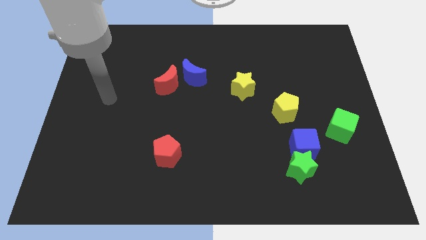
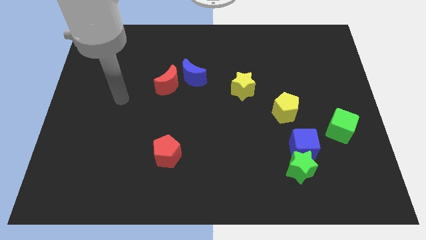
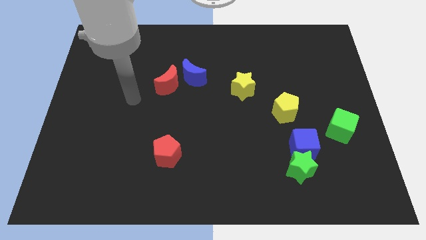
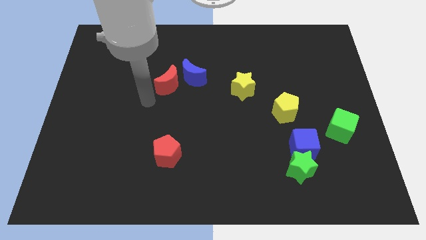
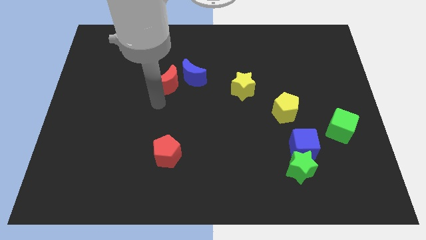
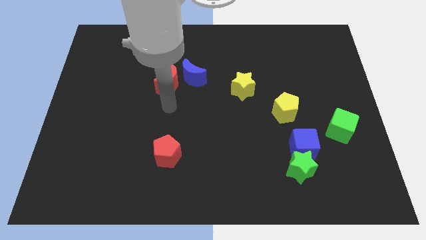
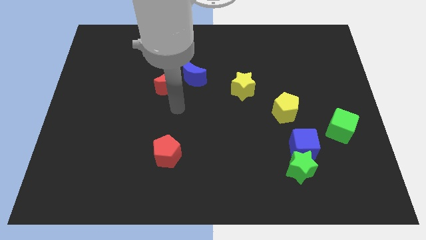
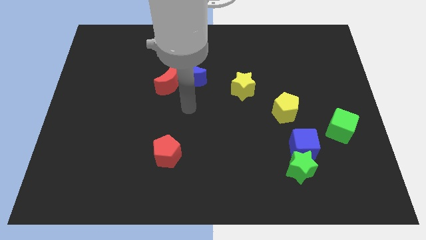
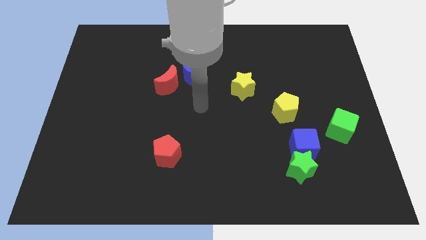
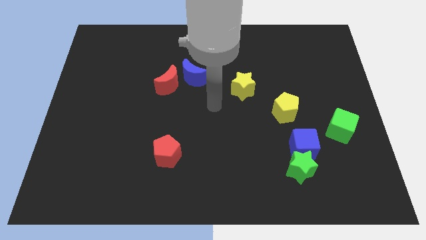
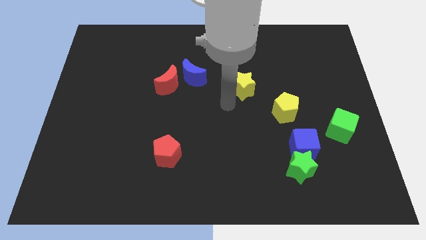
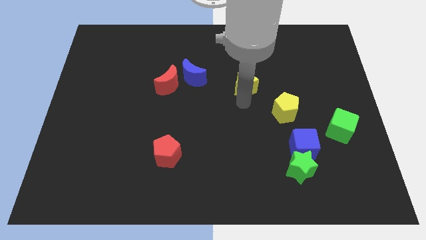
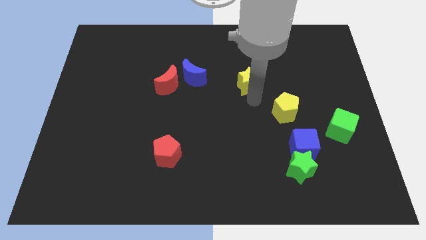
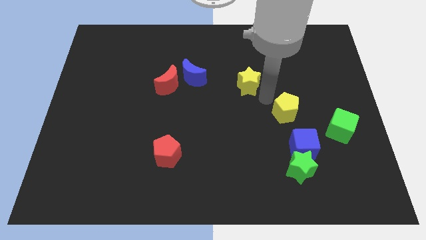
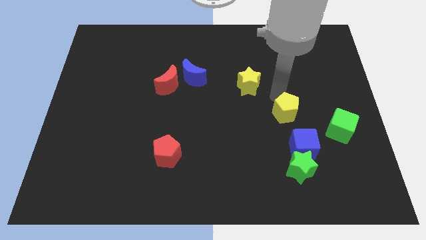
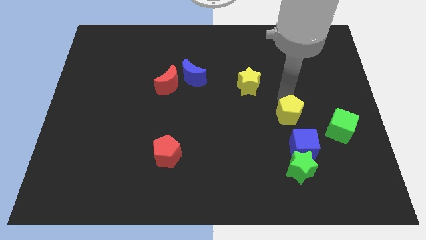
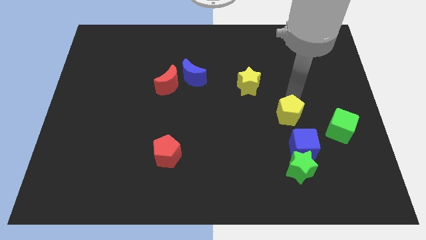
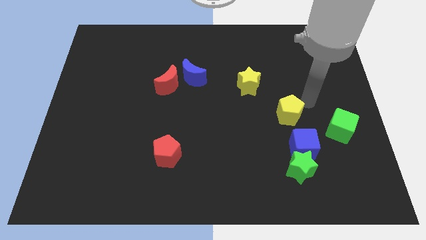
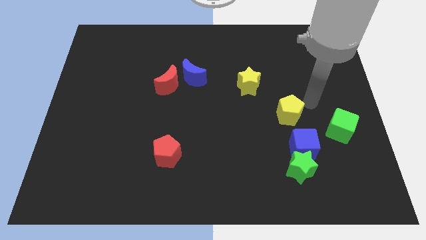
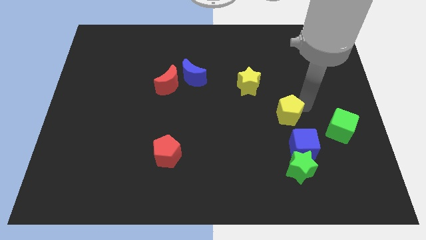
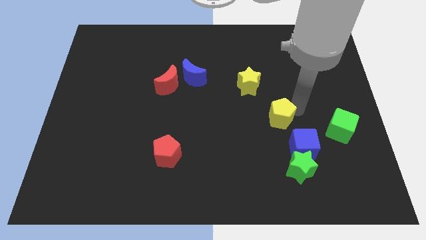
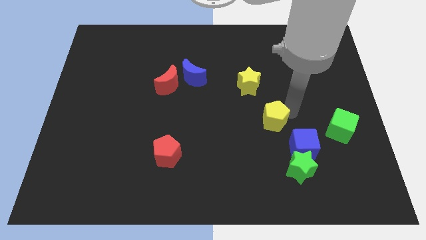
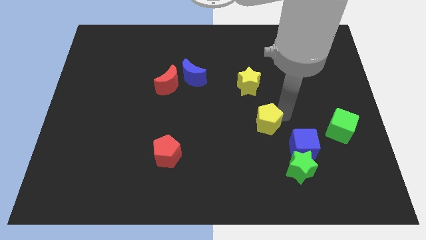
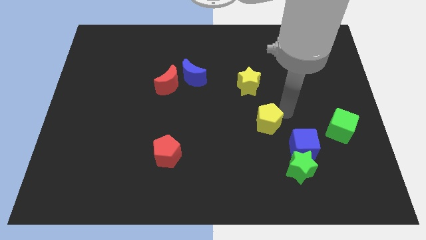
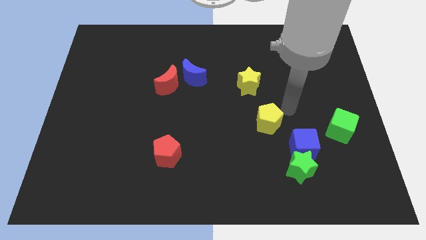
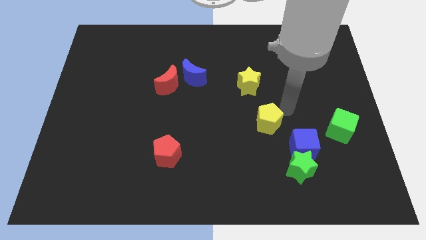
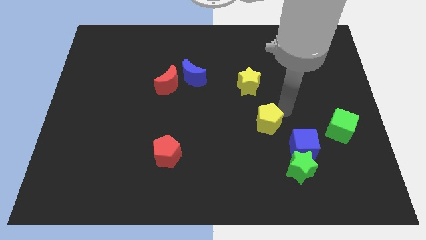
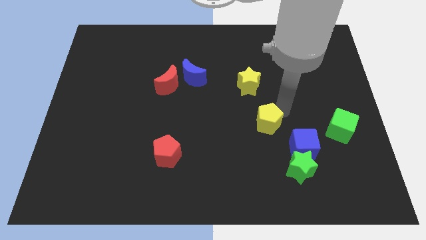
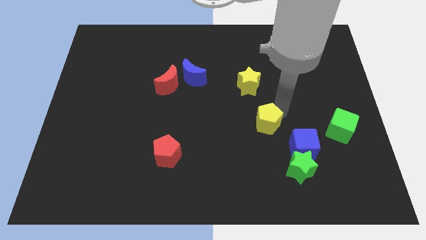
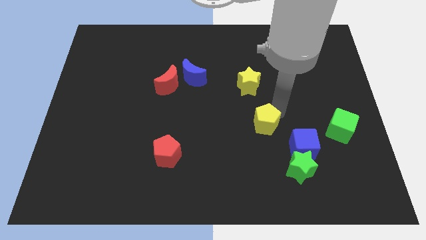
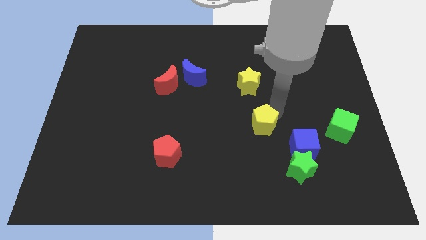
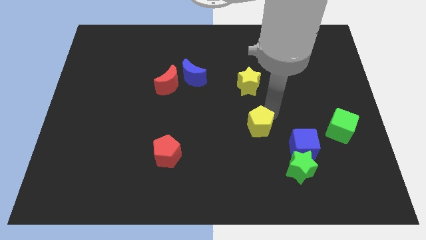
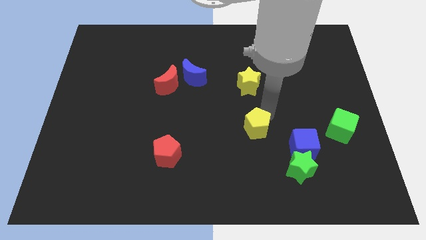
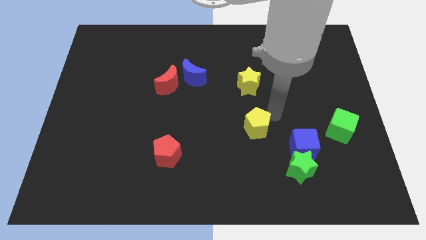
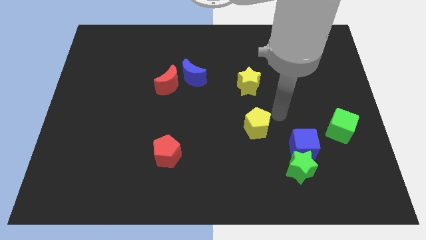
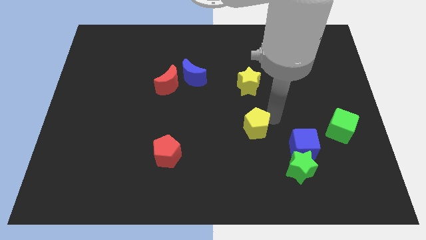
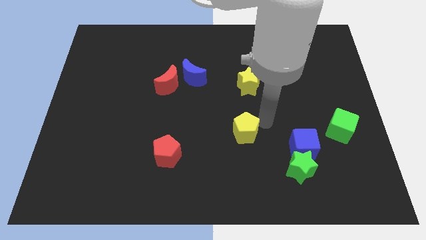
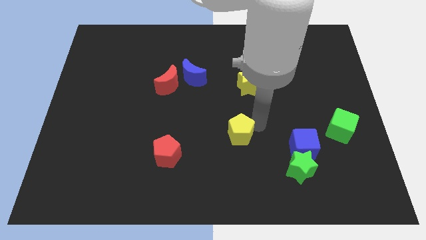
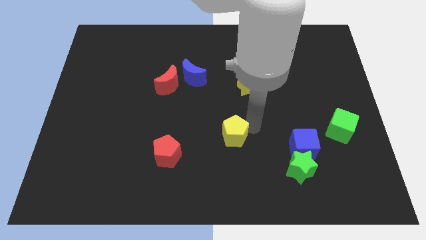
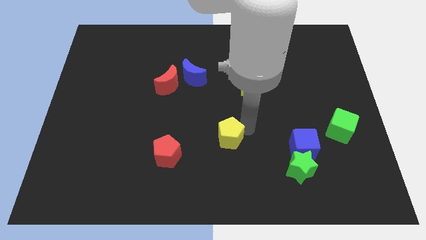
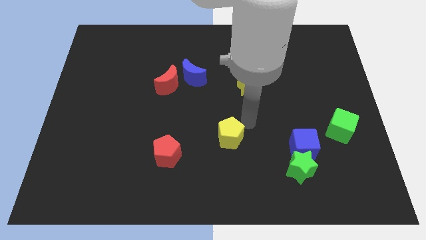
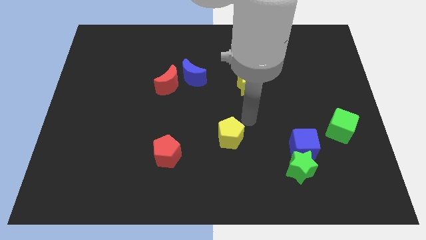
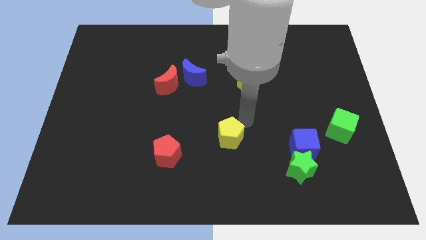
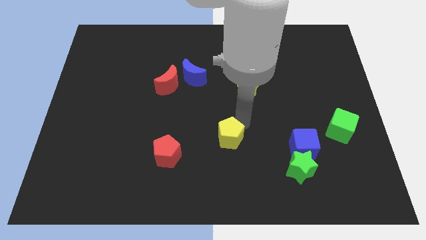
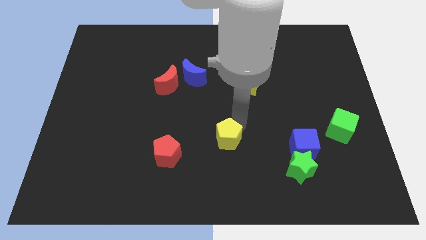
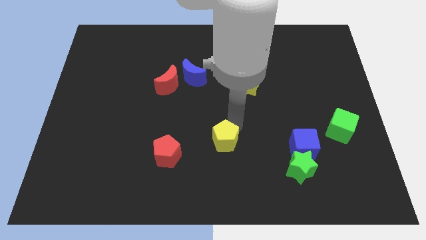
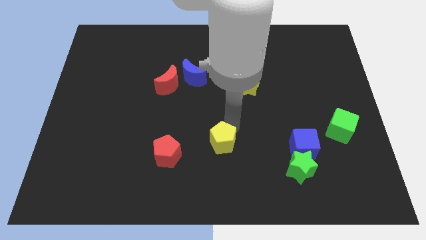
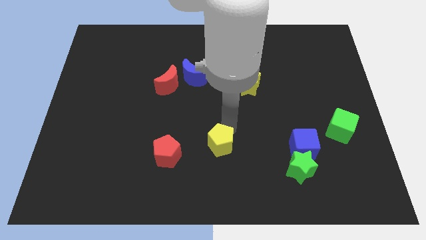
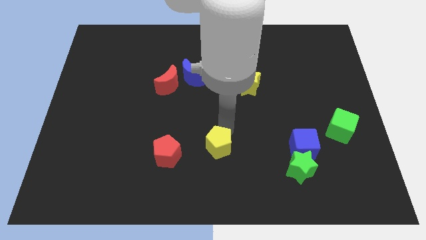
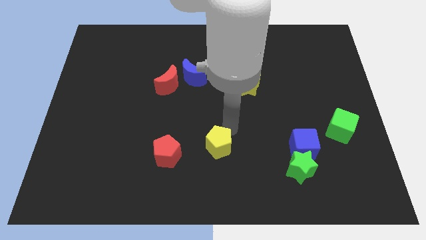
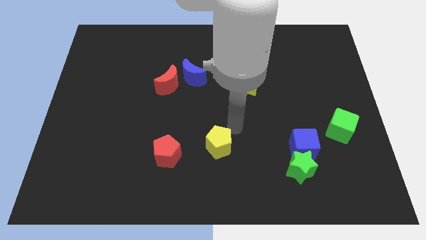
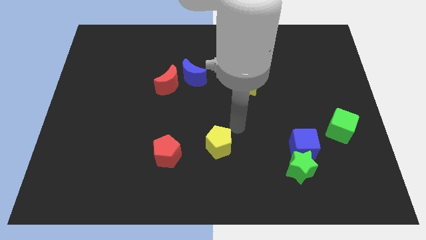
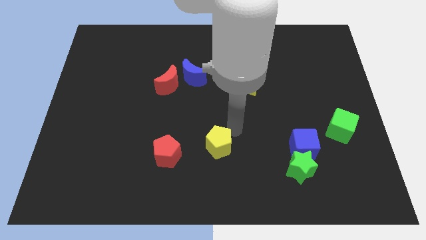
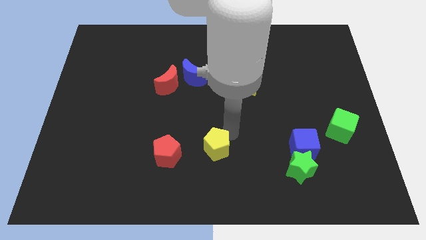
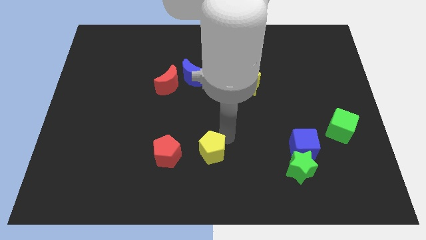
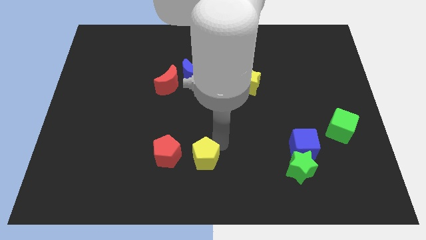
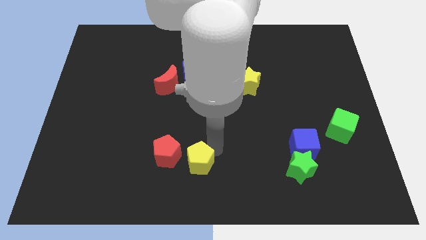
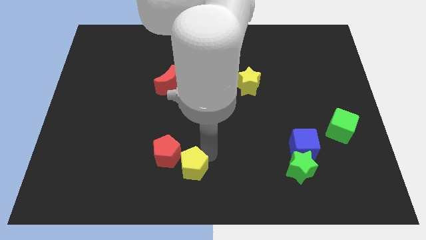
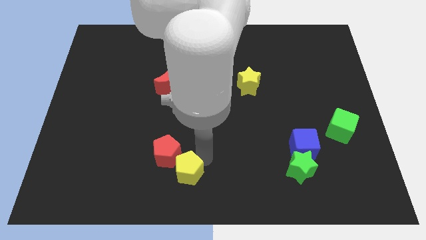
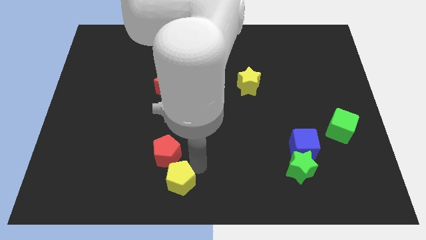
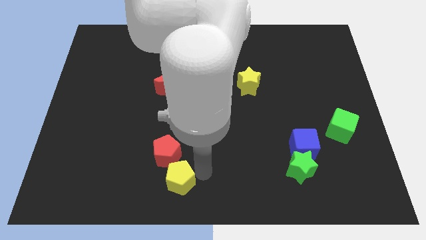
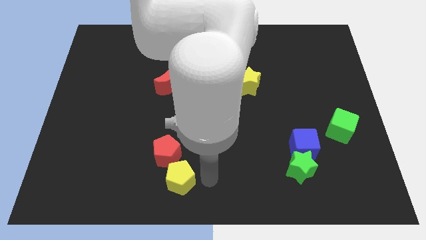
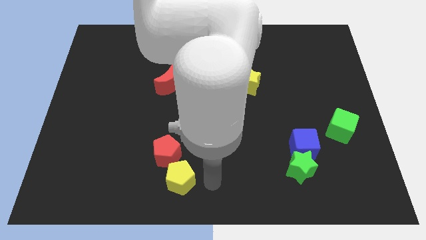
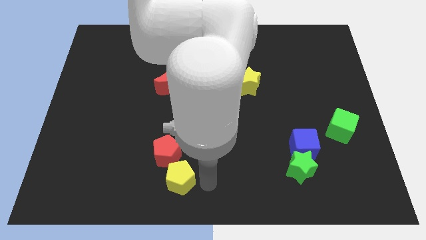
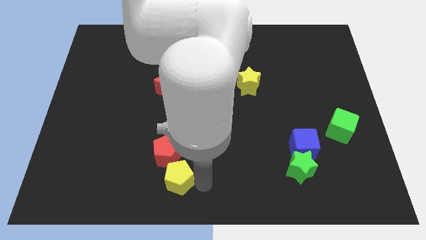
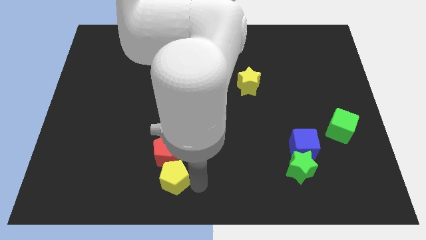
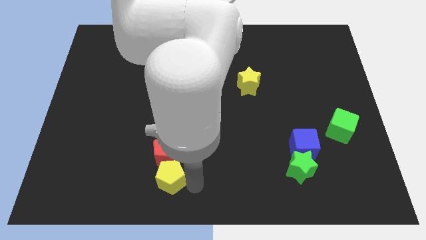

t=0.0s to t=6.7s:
push the yellow pentagon diagonally down and to the left of the red pentagon

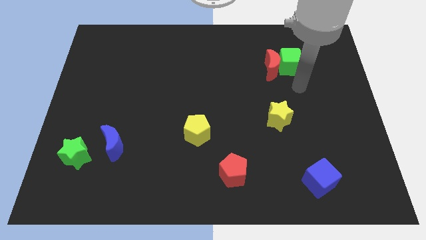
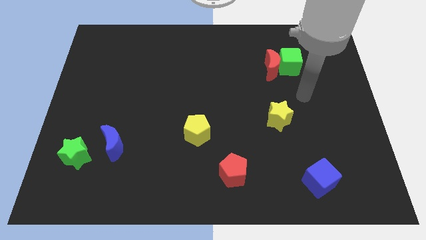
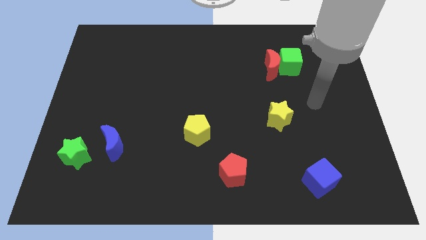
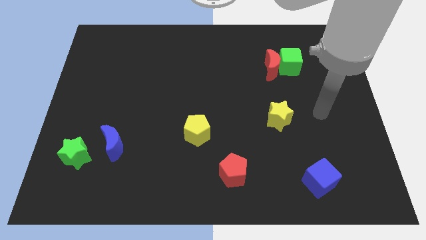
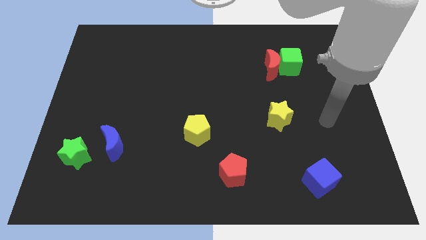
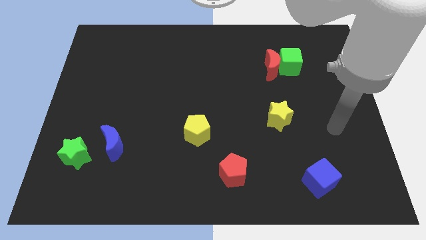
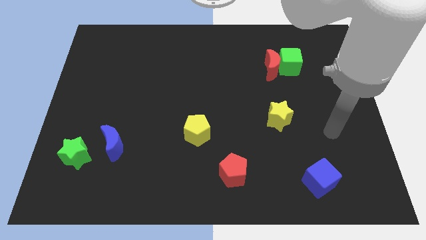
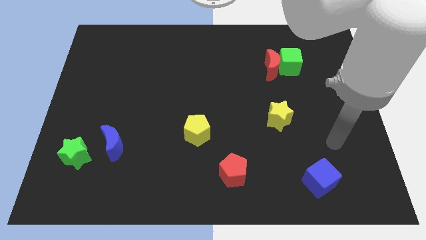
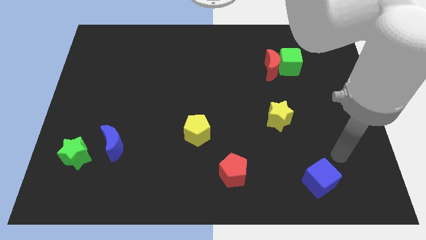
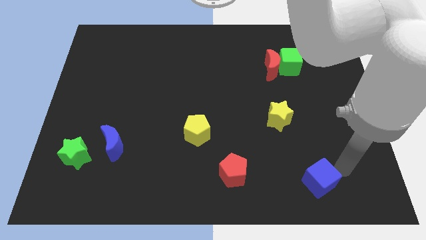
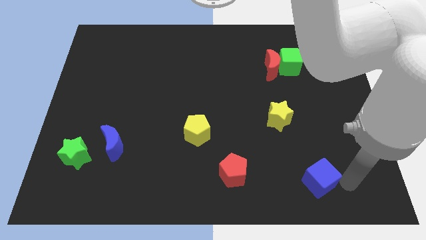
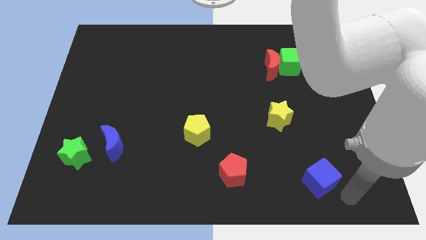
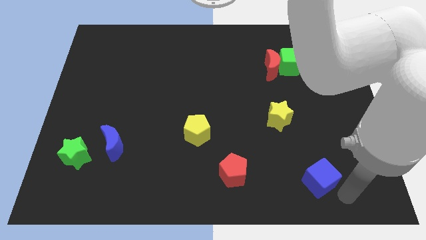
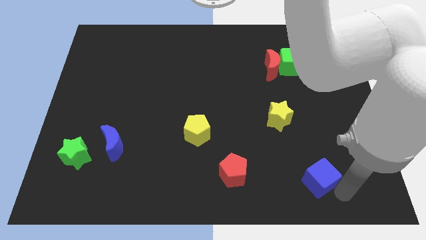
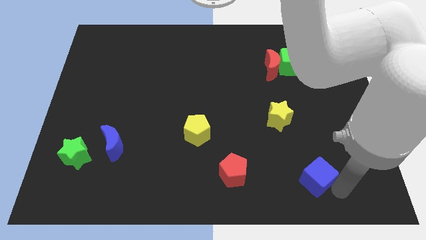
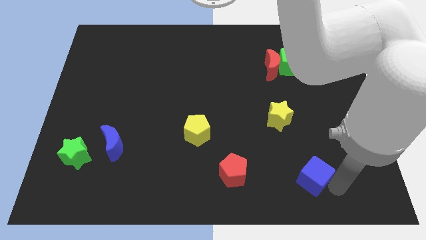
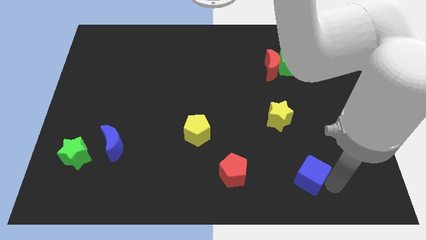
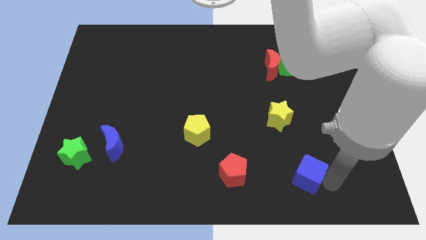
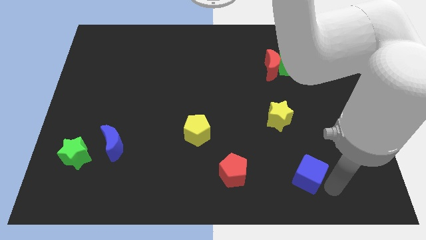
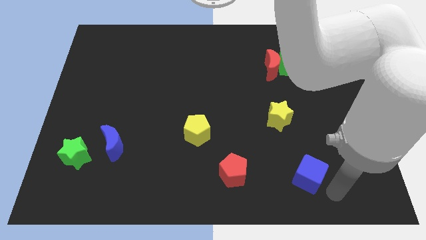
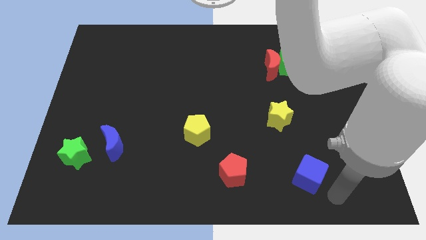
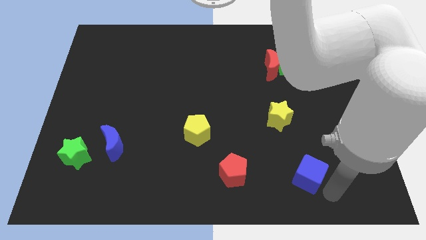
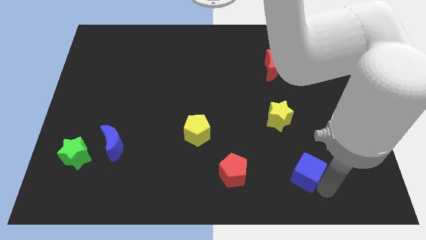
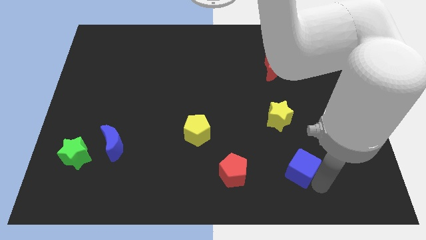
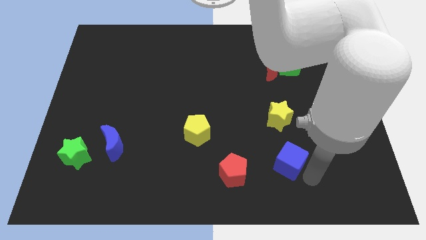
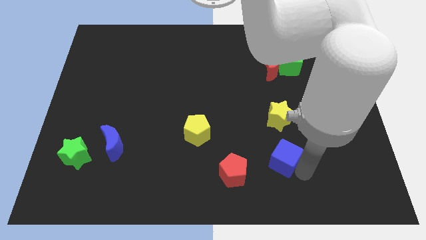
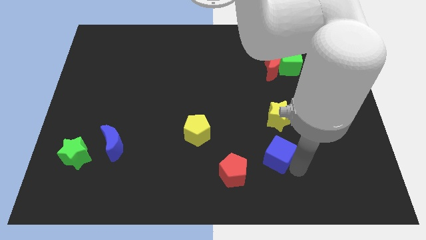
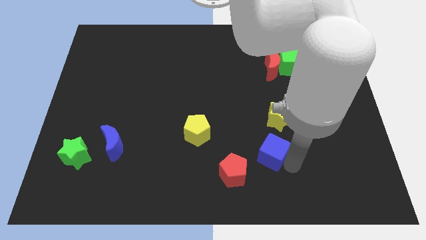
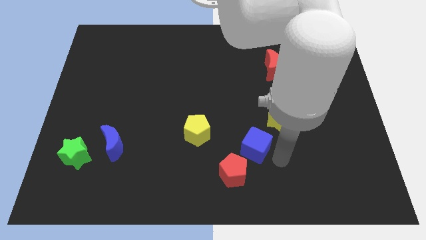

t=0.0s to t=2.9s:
move the blue cube above the red pentagon
